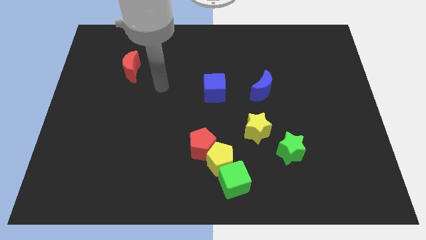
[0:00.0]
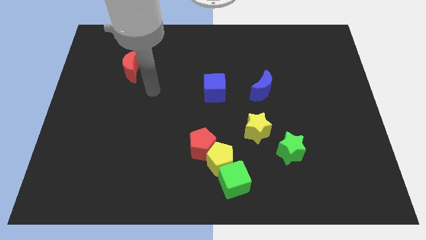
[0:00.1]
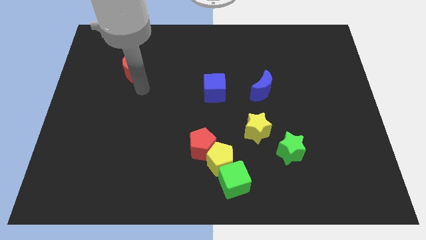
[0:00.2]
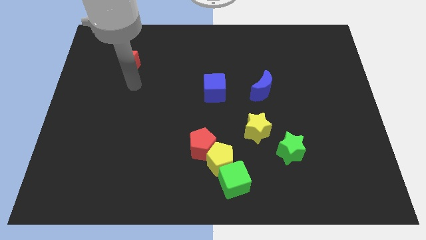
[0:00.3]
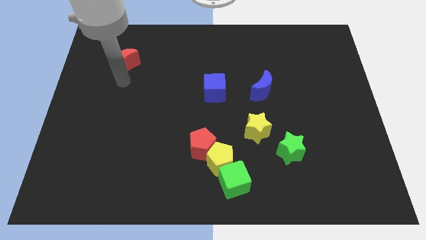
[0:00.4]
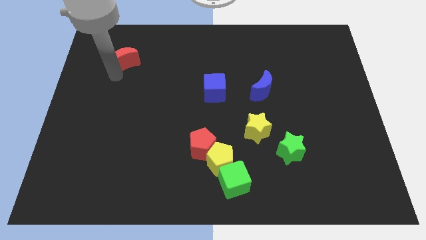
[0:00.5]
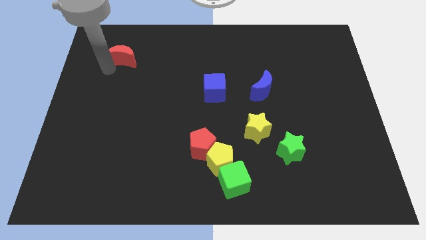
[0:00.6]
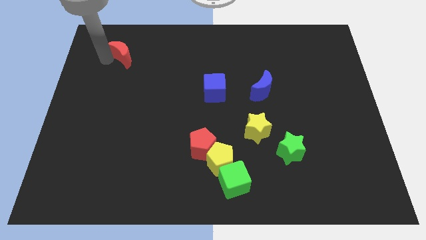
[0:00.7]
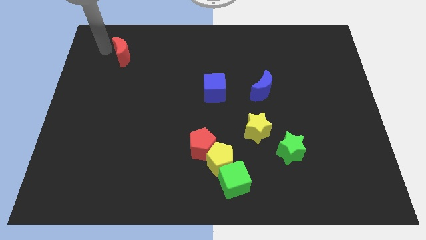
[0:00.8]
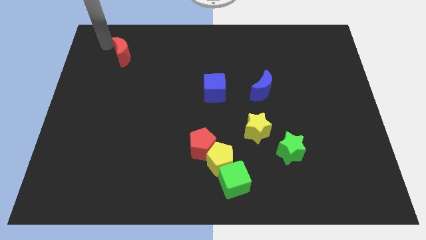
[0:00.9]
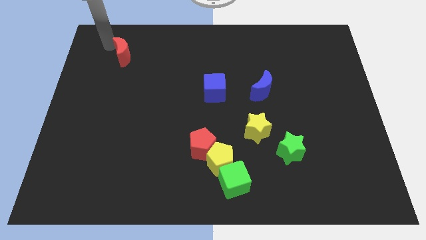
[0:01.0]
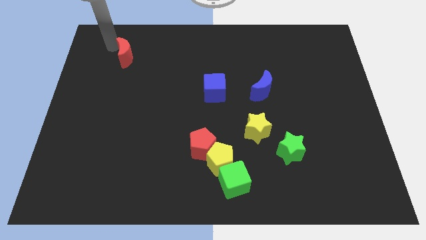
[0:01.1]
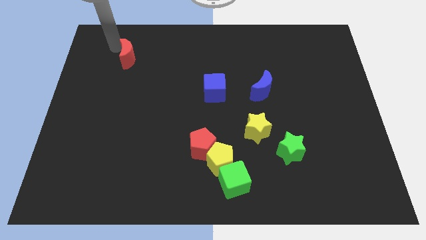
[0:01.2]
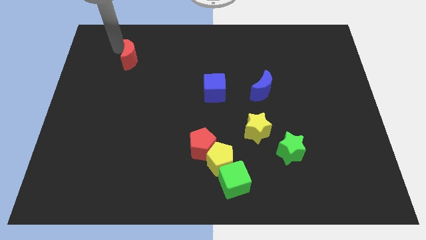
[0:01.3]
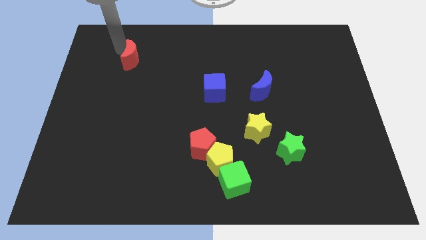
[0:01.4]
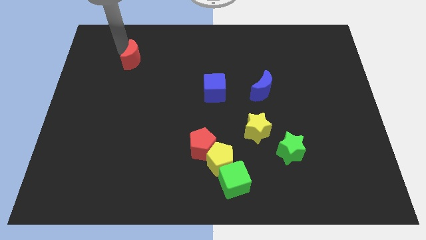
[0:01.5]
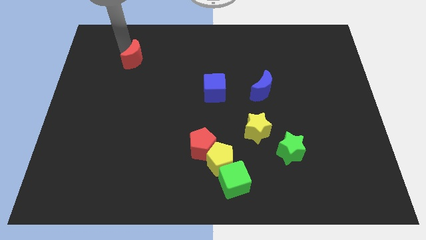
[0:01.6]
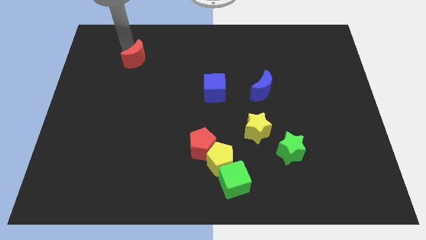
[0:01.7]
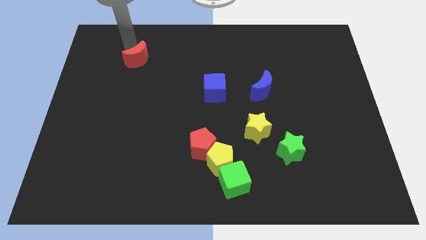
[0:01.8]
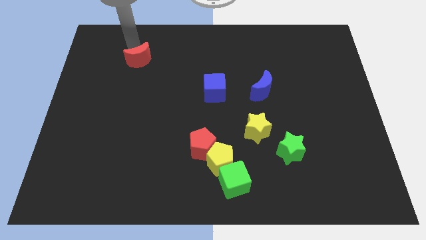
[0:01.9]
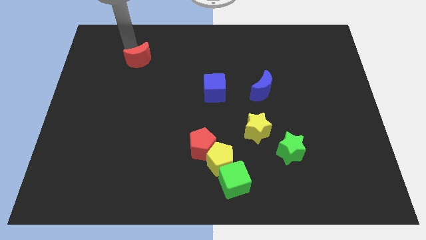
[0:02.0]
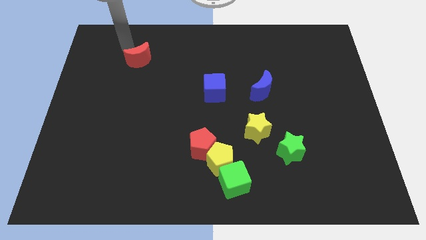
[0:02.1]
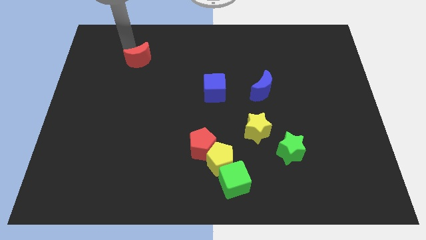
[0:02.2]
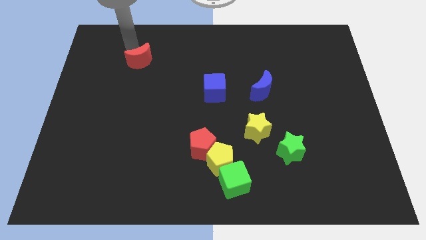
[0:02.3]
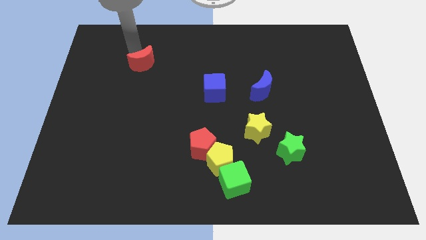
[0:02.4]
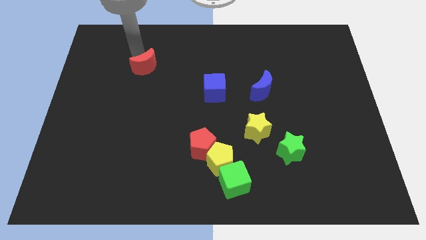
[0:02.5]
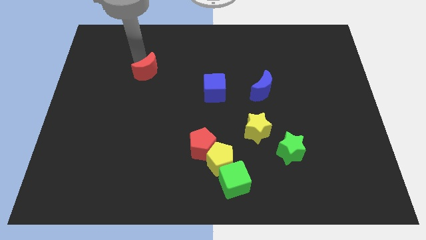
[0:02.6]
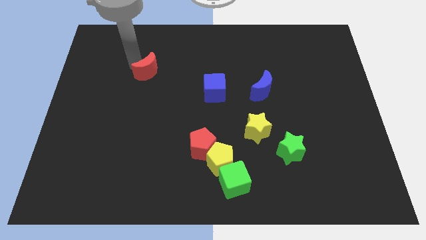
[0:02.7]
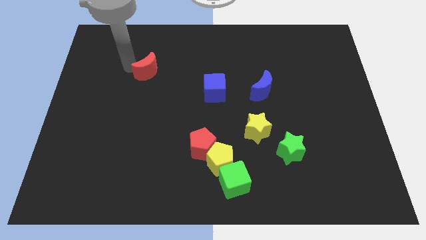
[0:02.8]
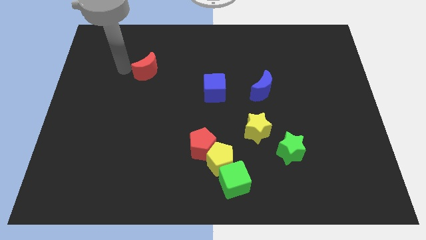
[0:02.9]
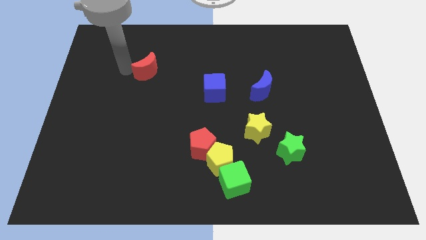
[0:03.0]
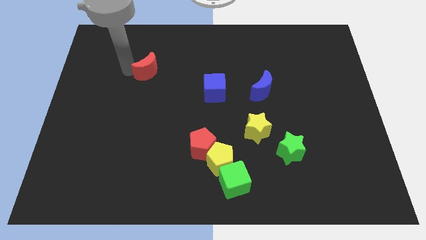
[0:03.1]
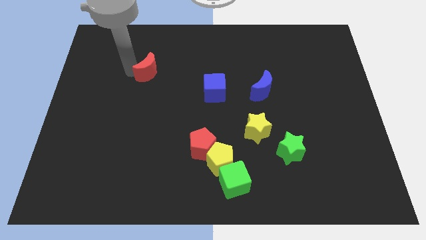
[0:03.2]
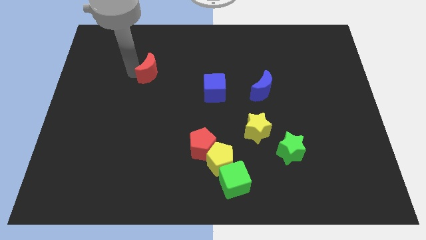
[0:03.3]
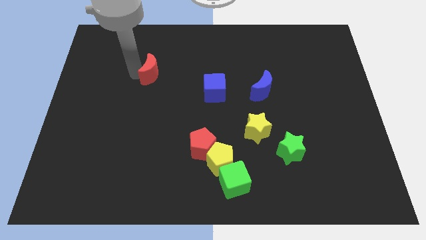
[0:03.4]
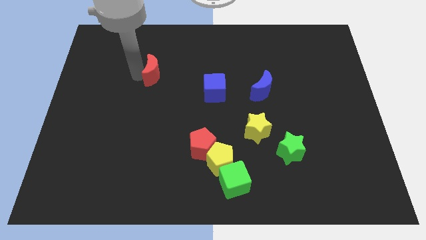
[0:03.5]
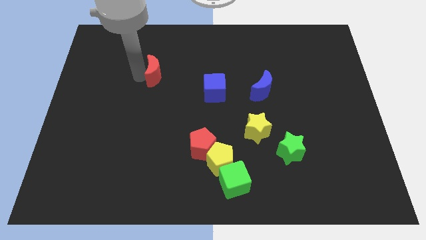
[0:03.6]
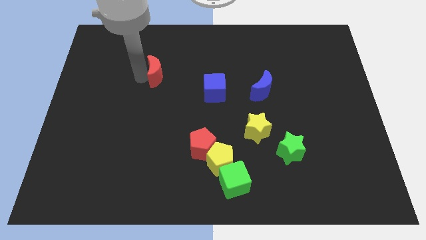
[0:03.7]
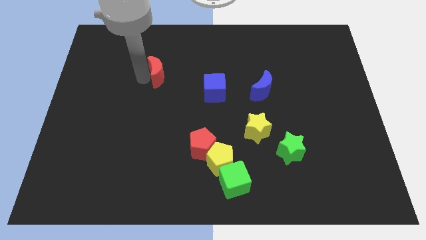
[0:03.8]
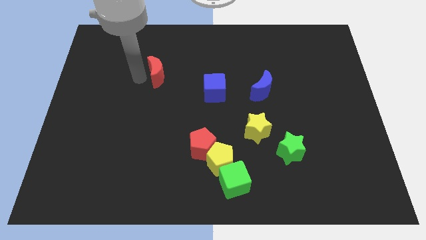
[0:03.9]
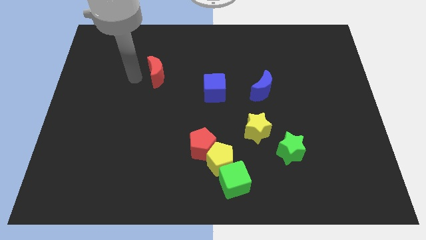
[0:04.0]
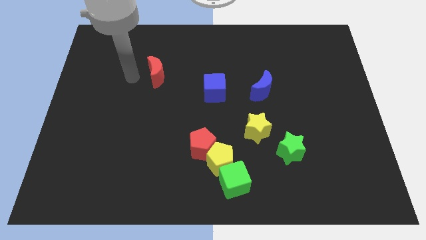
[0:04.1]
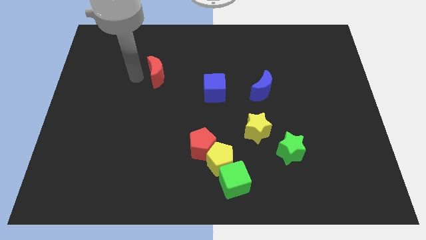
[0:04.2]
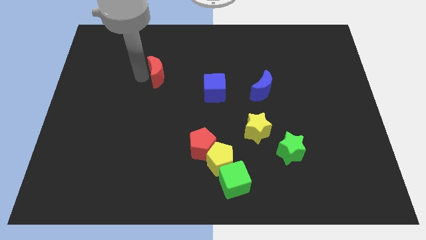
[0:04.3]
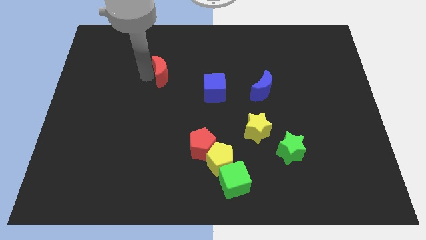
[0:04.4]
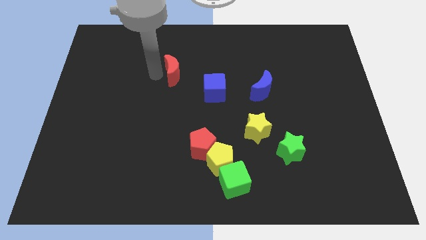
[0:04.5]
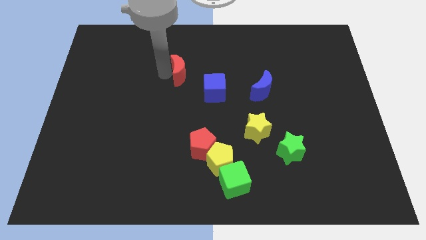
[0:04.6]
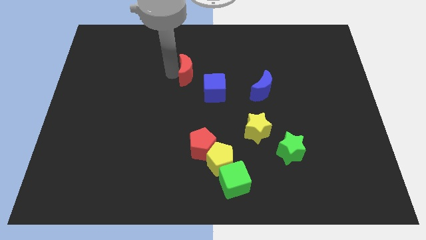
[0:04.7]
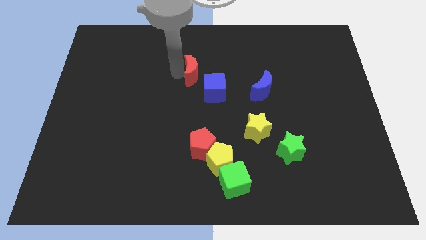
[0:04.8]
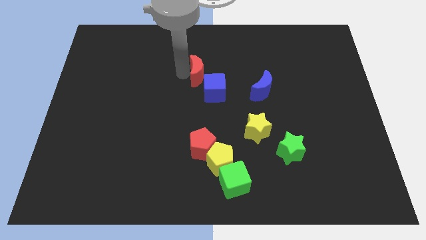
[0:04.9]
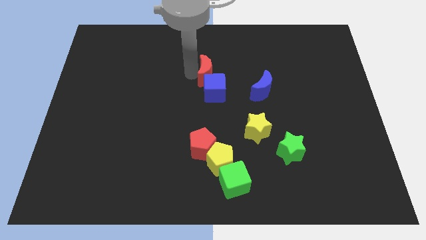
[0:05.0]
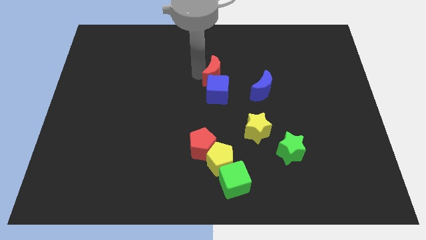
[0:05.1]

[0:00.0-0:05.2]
slide the red moon to the top right of the blue cube

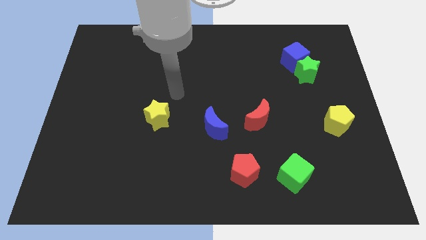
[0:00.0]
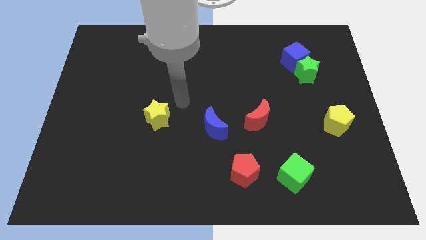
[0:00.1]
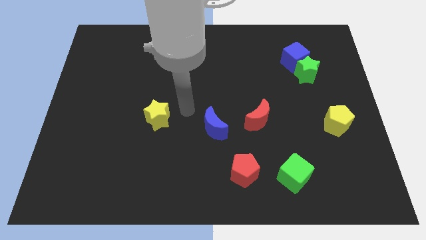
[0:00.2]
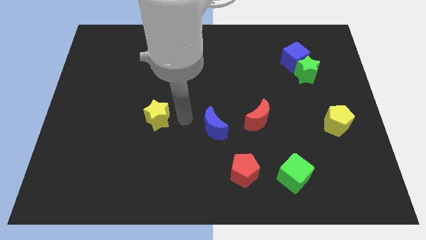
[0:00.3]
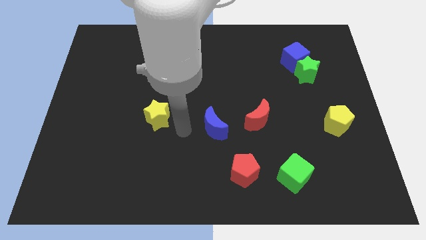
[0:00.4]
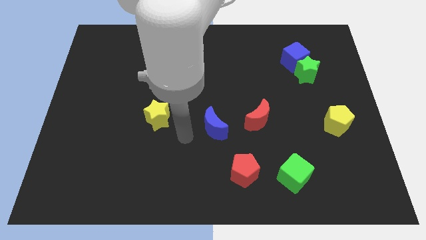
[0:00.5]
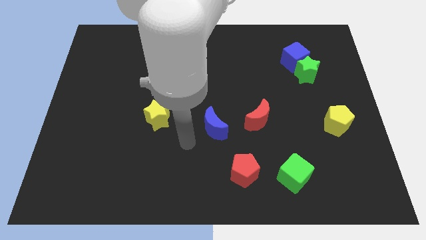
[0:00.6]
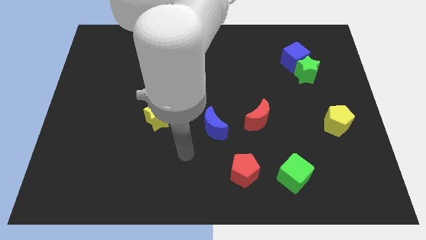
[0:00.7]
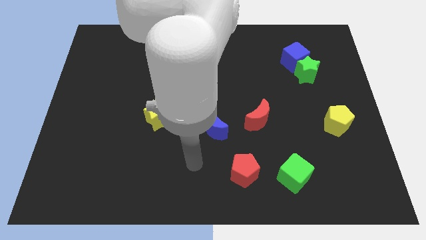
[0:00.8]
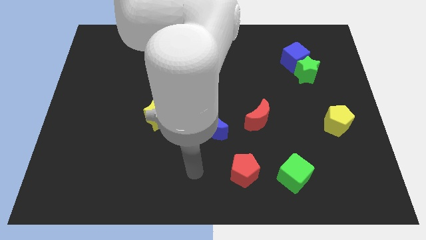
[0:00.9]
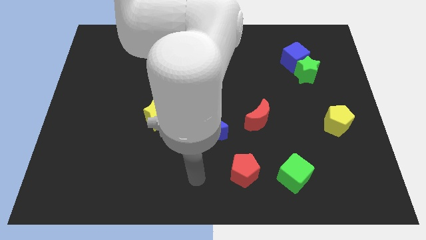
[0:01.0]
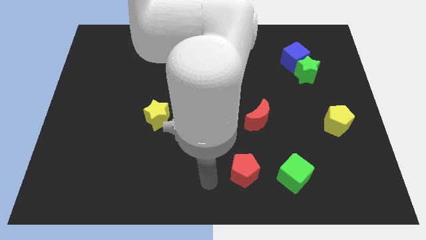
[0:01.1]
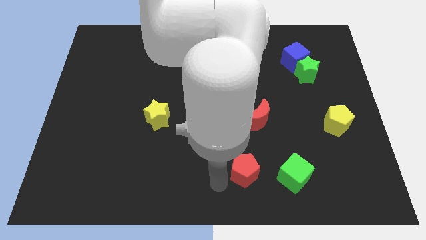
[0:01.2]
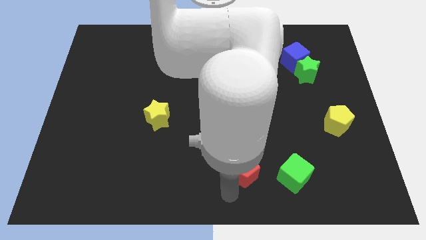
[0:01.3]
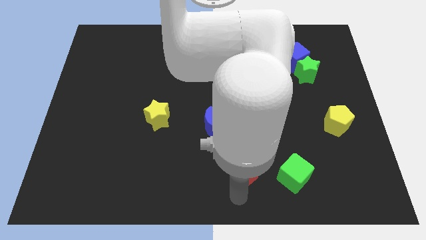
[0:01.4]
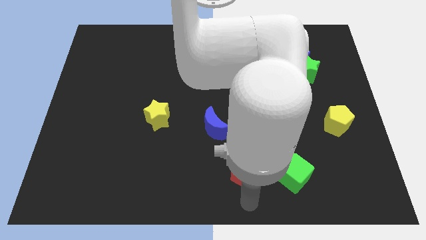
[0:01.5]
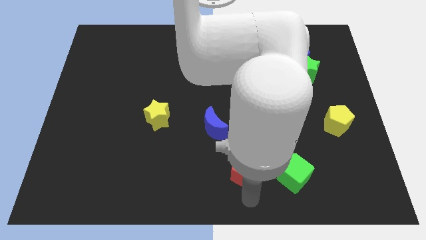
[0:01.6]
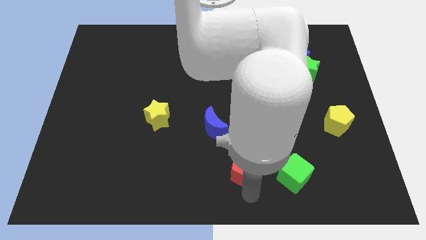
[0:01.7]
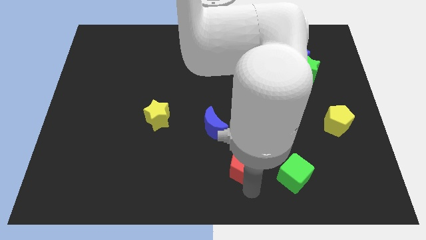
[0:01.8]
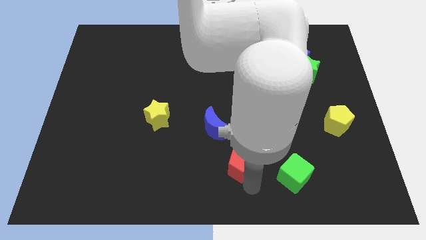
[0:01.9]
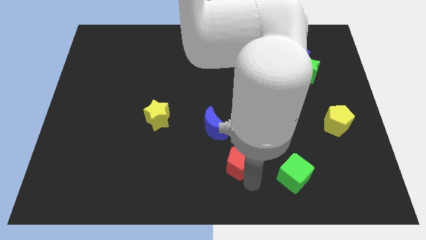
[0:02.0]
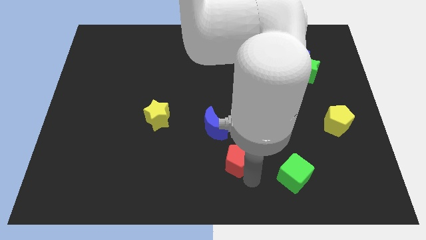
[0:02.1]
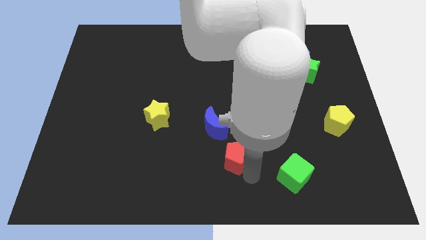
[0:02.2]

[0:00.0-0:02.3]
move the red pentagon to the bottom left of the red moon

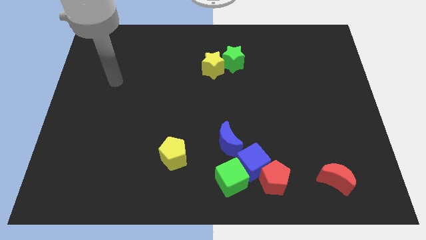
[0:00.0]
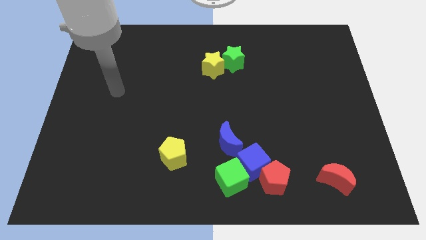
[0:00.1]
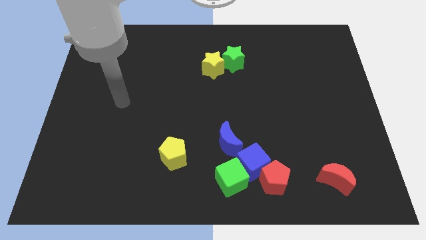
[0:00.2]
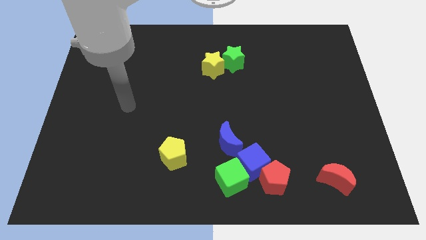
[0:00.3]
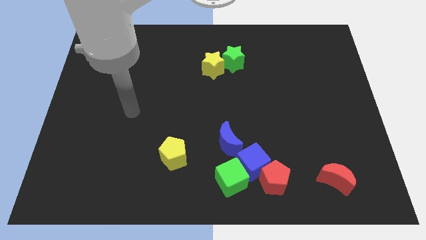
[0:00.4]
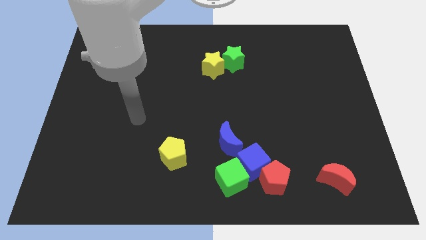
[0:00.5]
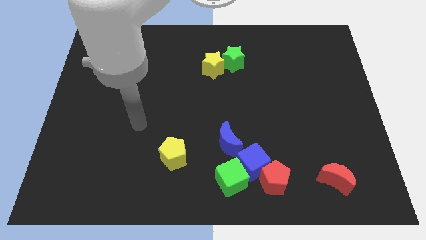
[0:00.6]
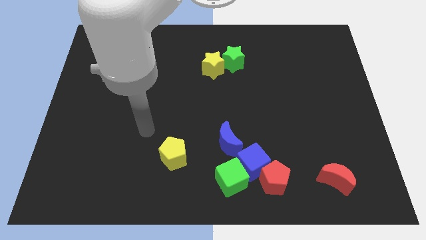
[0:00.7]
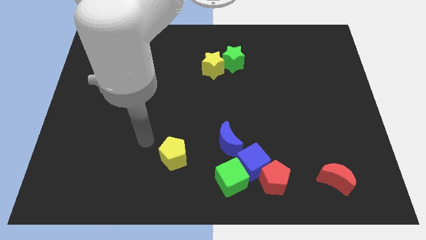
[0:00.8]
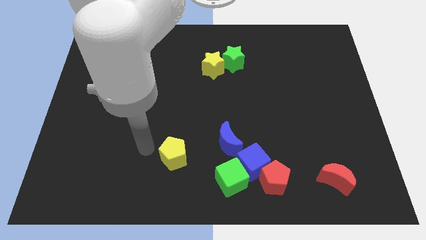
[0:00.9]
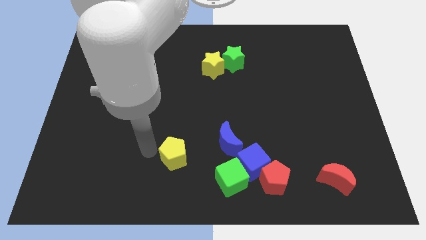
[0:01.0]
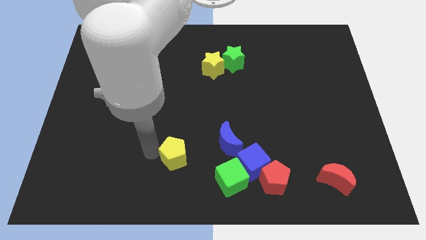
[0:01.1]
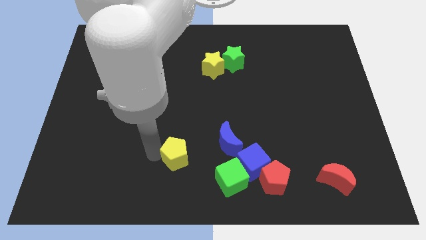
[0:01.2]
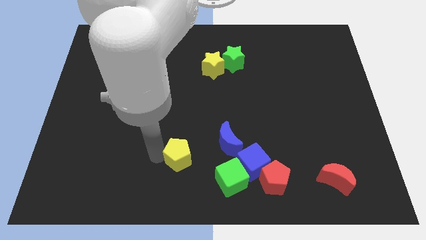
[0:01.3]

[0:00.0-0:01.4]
push the yellow pentagon left of the blue cube
